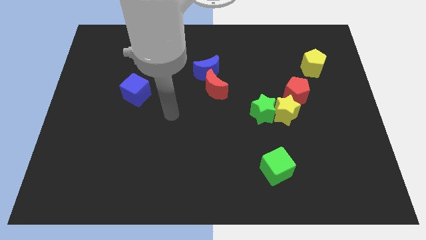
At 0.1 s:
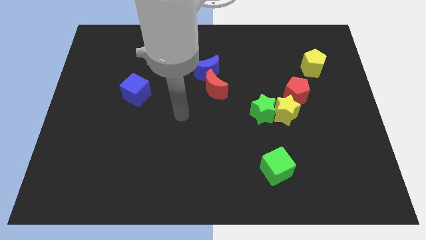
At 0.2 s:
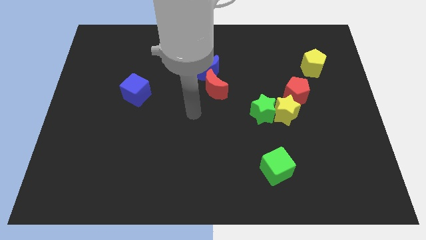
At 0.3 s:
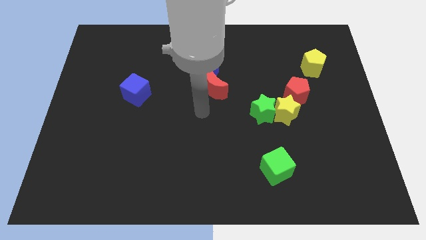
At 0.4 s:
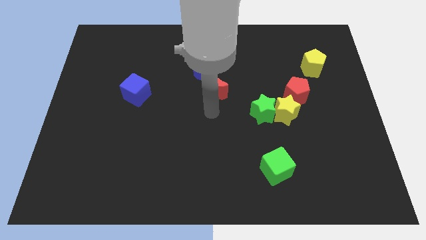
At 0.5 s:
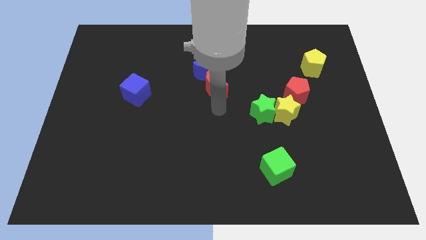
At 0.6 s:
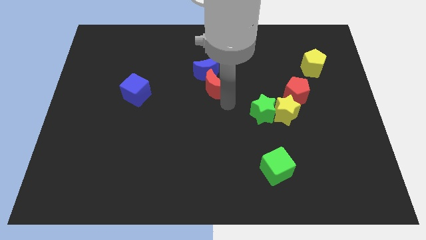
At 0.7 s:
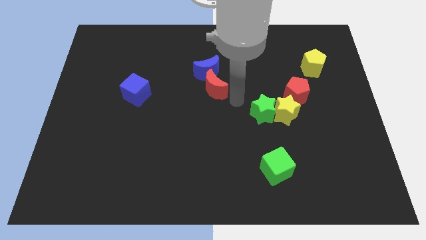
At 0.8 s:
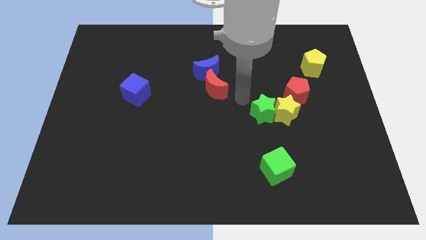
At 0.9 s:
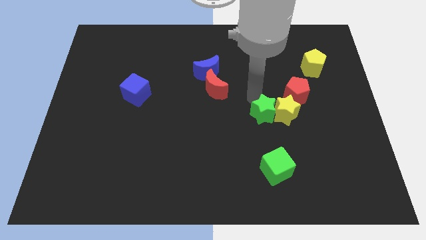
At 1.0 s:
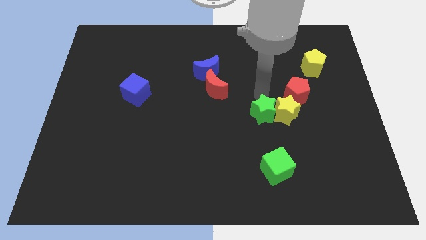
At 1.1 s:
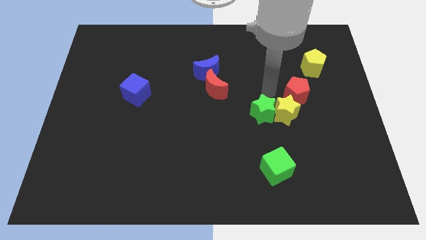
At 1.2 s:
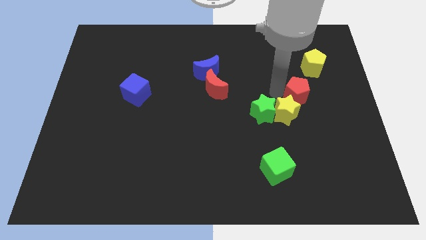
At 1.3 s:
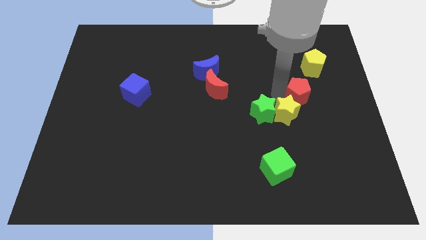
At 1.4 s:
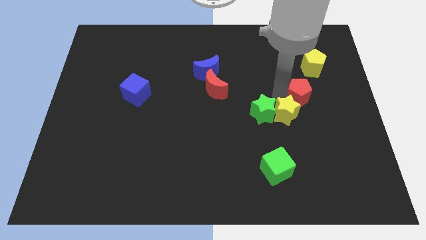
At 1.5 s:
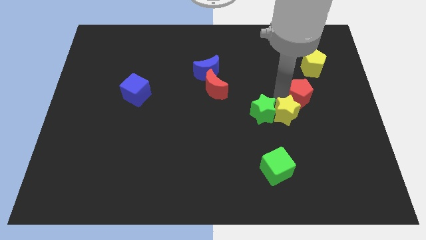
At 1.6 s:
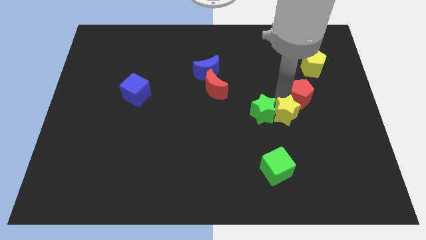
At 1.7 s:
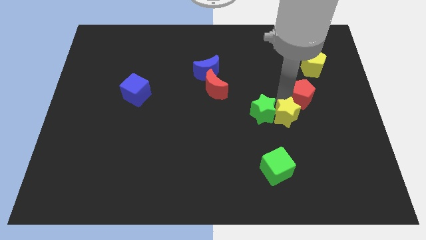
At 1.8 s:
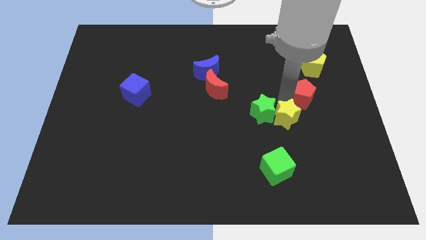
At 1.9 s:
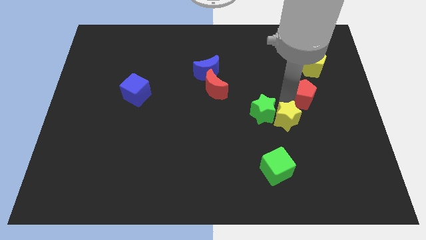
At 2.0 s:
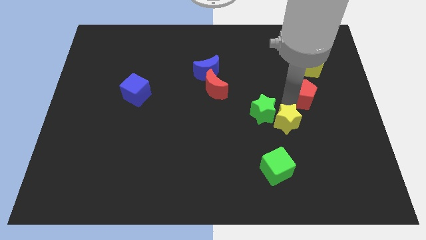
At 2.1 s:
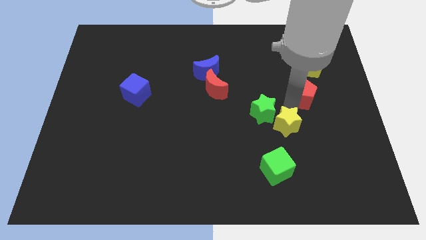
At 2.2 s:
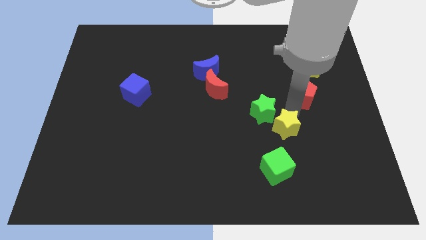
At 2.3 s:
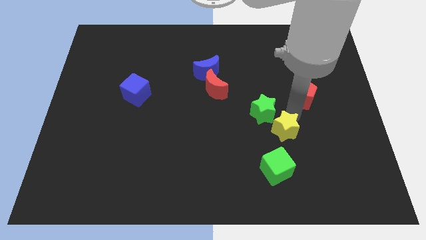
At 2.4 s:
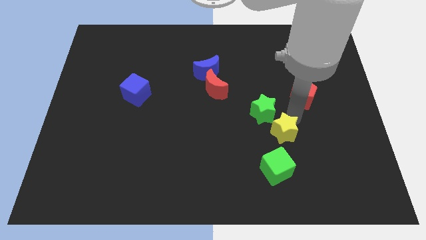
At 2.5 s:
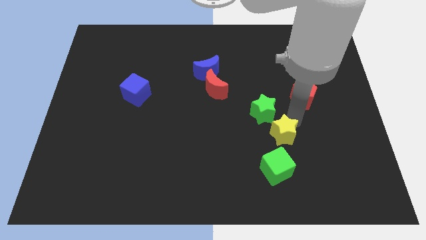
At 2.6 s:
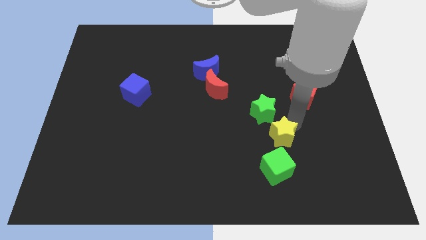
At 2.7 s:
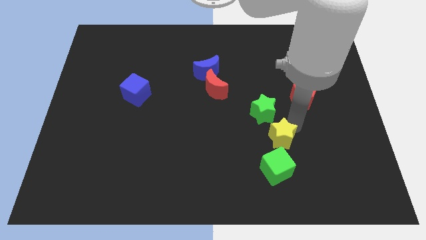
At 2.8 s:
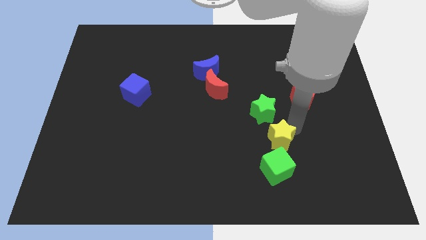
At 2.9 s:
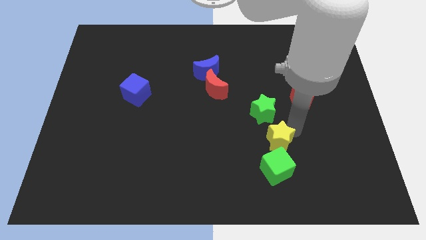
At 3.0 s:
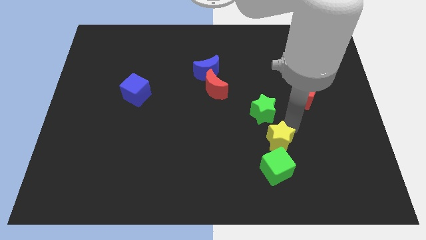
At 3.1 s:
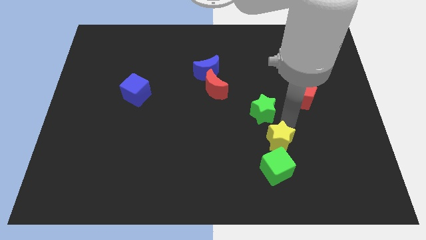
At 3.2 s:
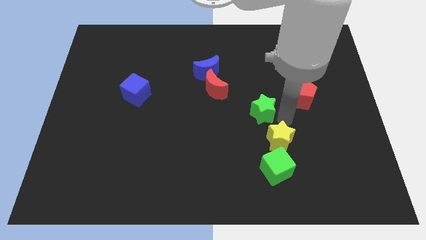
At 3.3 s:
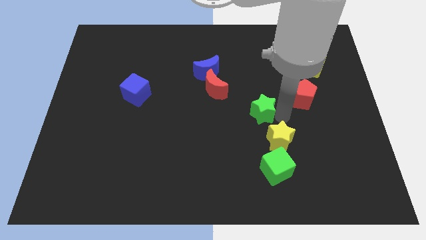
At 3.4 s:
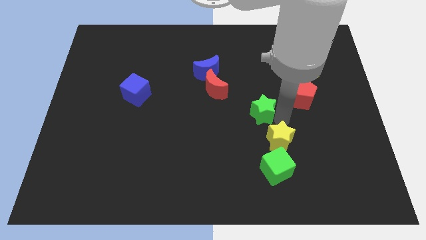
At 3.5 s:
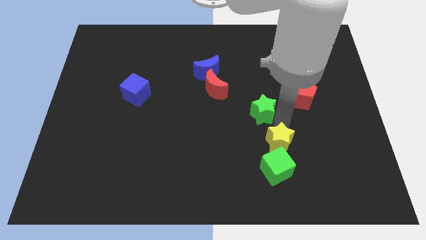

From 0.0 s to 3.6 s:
separate the yellow star from the green star and red pentagon

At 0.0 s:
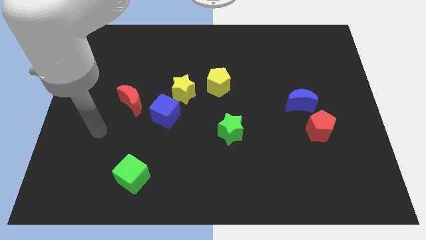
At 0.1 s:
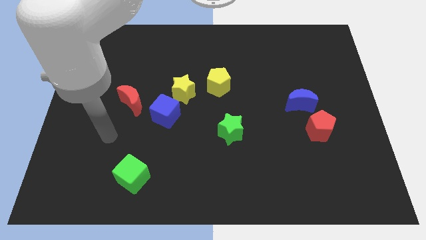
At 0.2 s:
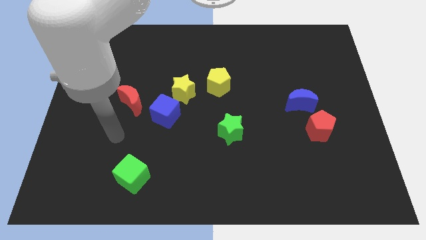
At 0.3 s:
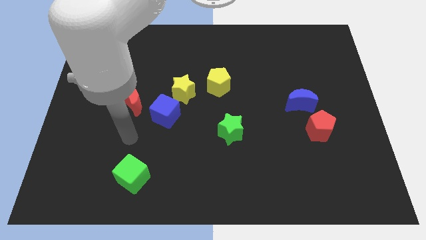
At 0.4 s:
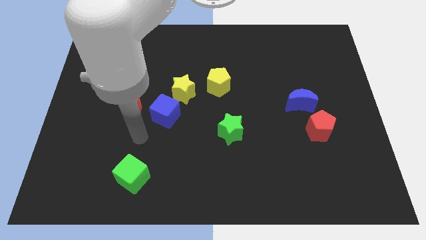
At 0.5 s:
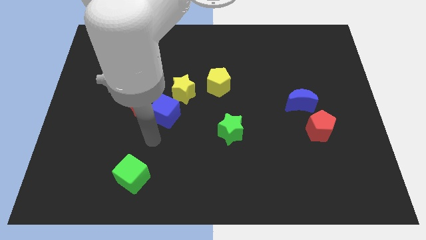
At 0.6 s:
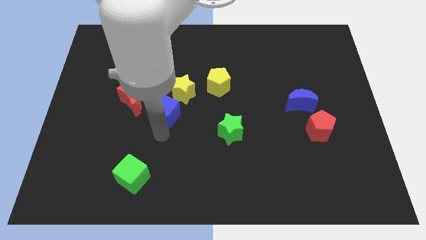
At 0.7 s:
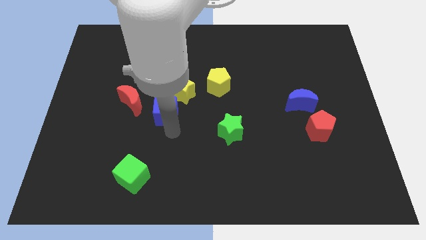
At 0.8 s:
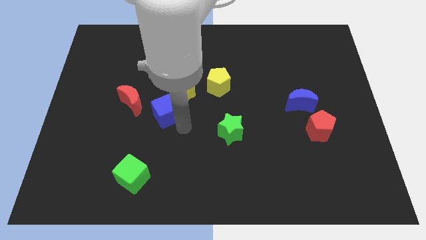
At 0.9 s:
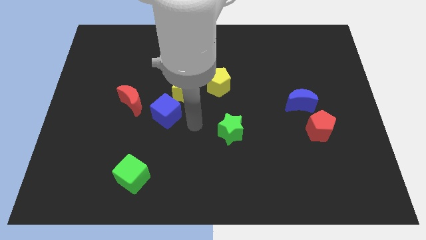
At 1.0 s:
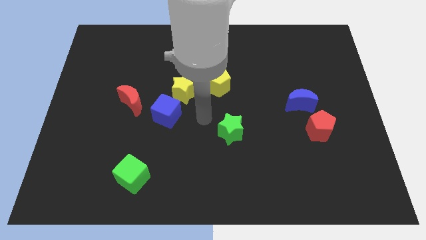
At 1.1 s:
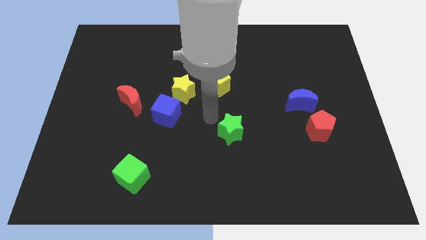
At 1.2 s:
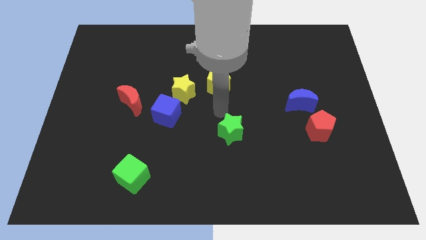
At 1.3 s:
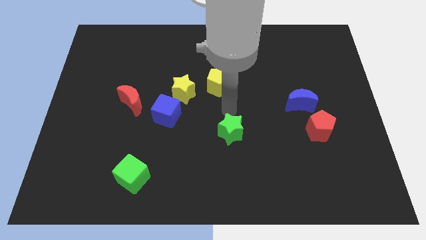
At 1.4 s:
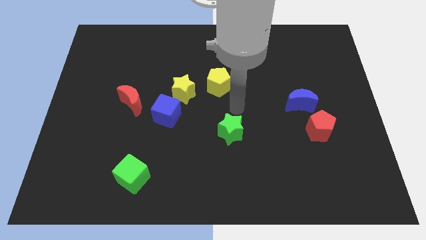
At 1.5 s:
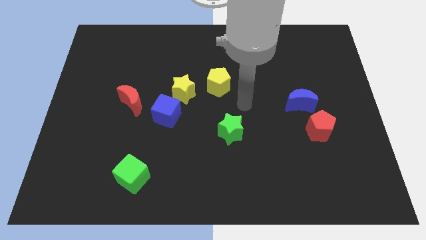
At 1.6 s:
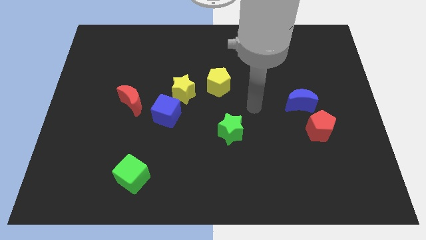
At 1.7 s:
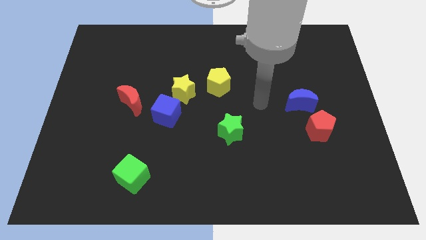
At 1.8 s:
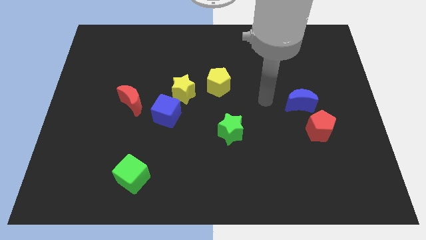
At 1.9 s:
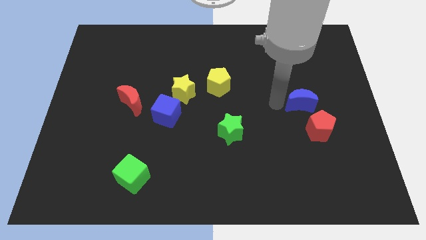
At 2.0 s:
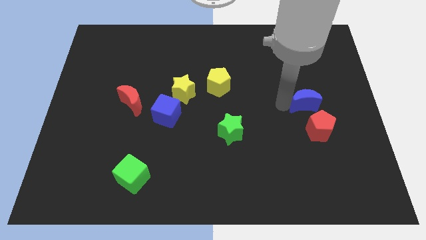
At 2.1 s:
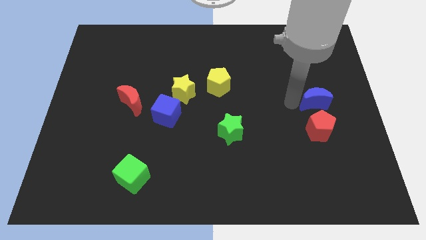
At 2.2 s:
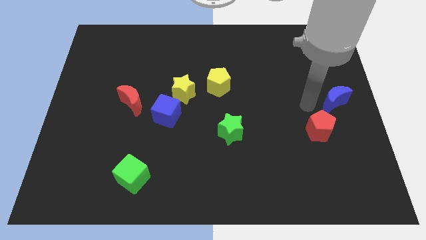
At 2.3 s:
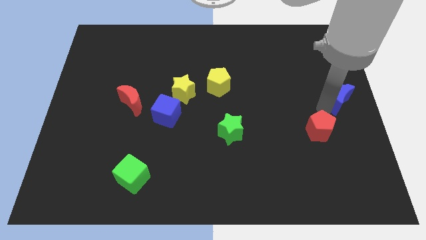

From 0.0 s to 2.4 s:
separate the red pentagon from the blue moon

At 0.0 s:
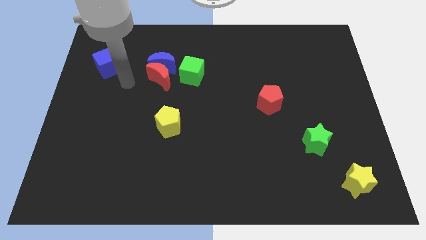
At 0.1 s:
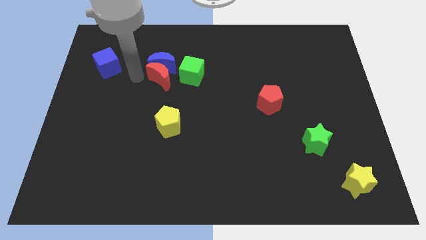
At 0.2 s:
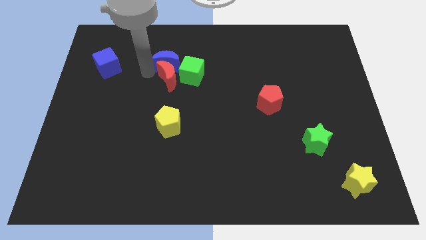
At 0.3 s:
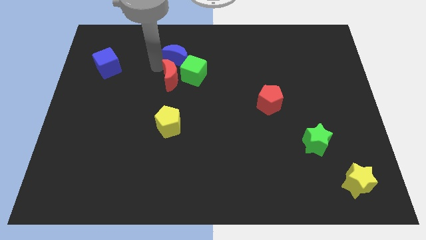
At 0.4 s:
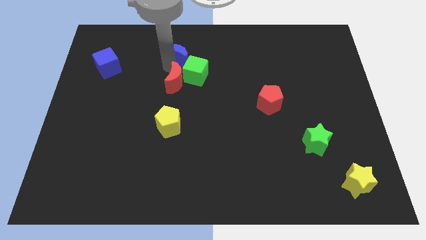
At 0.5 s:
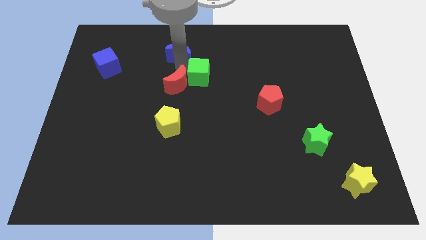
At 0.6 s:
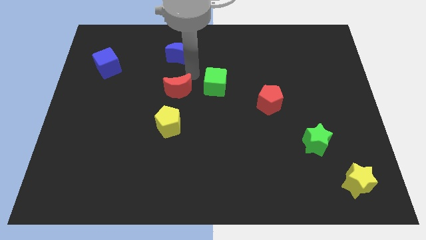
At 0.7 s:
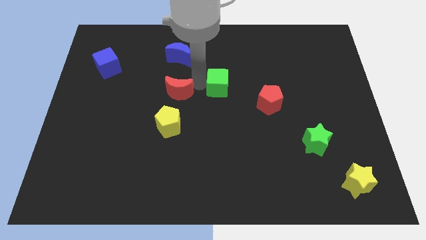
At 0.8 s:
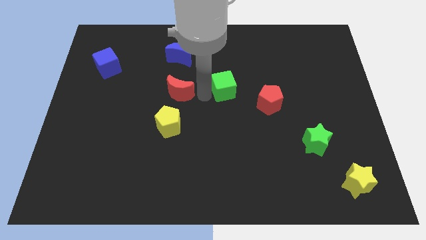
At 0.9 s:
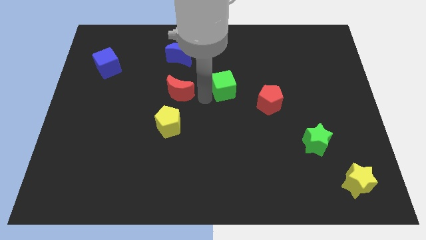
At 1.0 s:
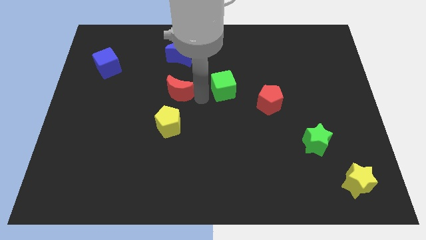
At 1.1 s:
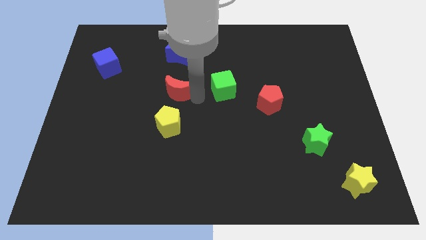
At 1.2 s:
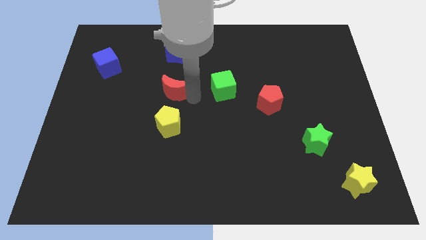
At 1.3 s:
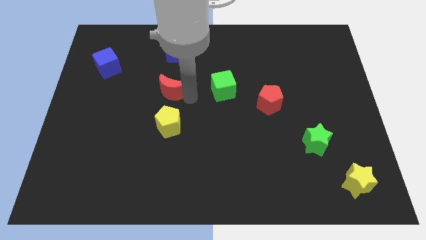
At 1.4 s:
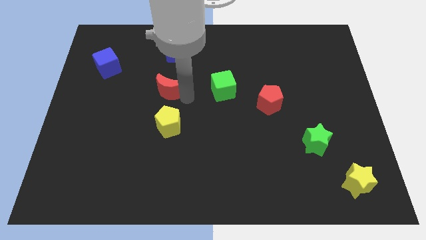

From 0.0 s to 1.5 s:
separate the red moon from the blue moon and green cube

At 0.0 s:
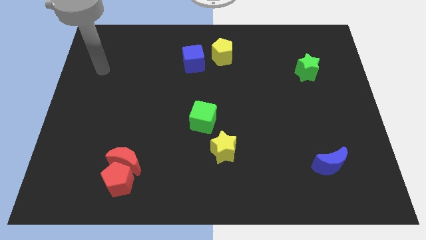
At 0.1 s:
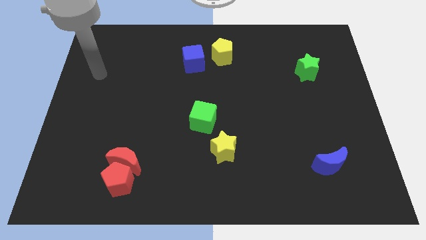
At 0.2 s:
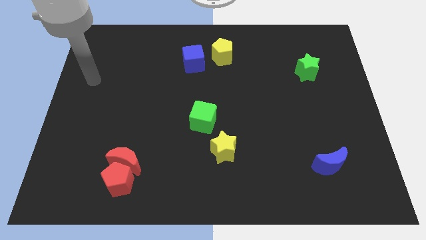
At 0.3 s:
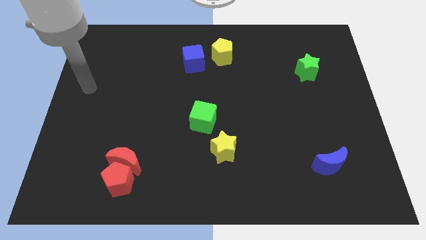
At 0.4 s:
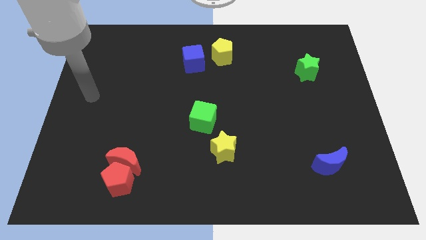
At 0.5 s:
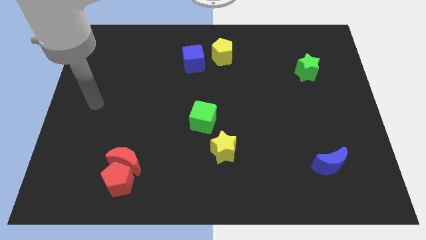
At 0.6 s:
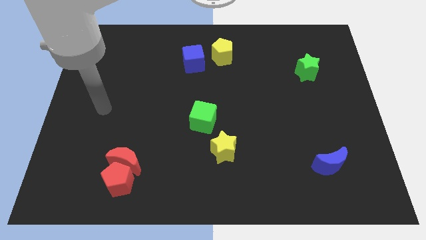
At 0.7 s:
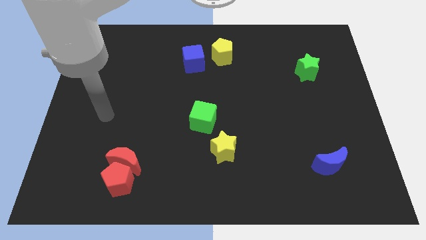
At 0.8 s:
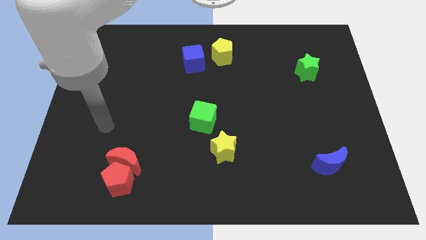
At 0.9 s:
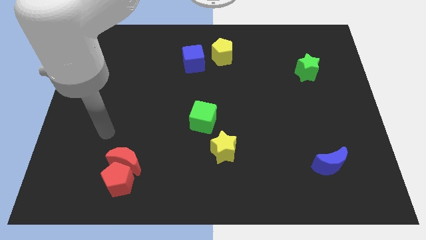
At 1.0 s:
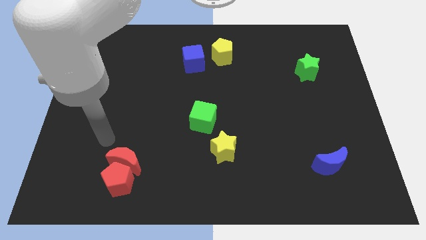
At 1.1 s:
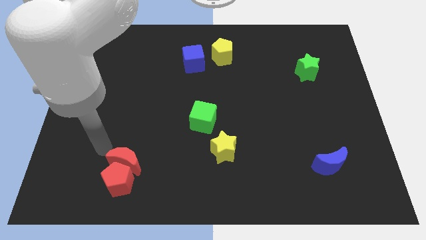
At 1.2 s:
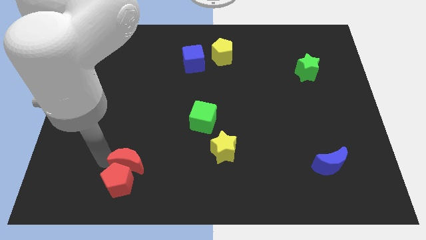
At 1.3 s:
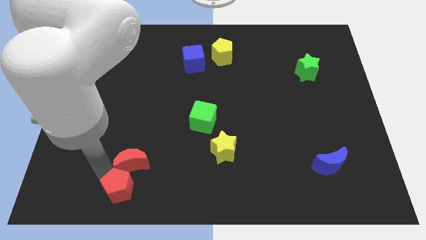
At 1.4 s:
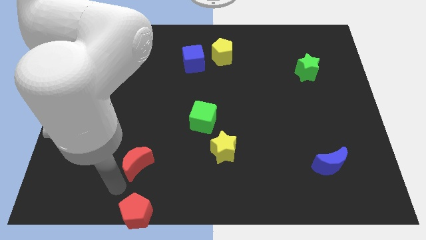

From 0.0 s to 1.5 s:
move the red moon away from the red pentagon

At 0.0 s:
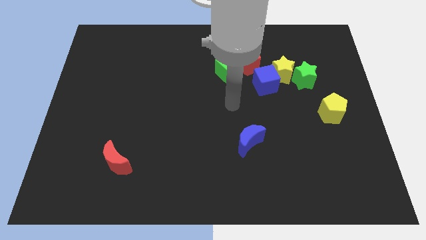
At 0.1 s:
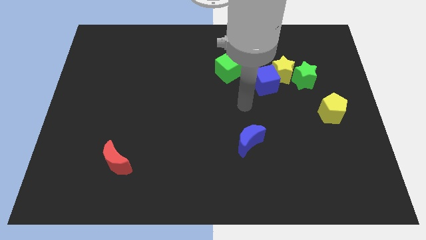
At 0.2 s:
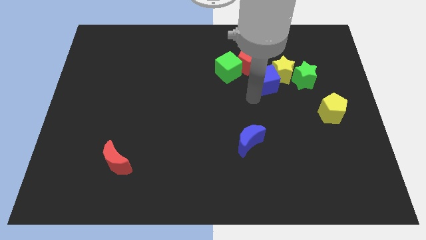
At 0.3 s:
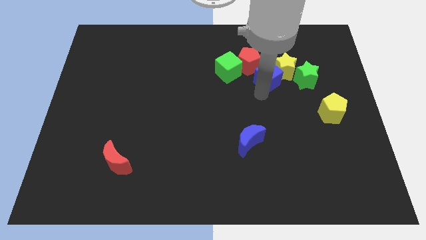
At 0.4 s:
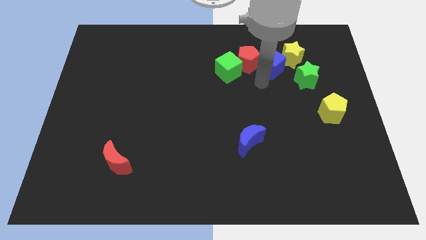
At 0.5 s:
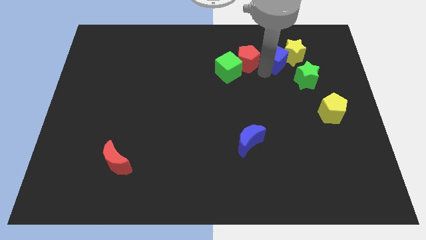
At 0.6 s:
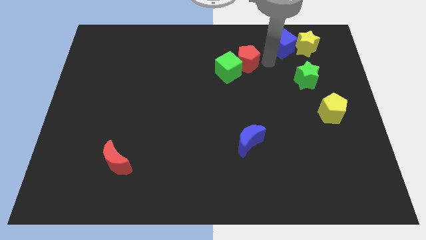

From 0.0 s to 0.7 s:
move the yellow star away from the green star, blue cube, and red pentagon
